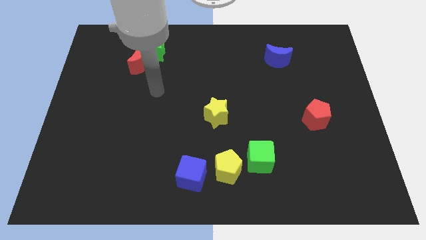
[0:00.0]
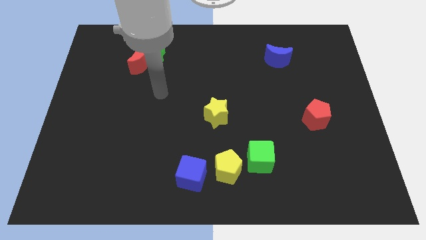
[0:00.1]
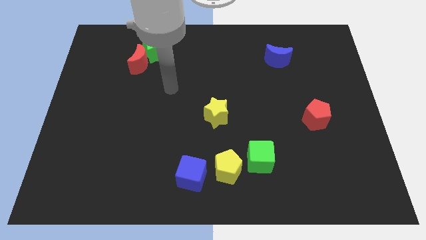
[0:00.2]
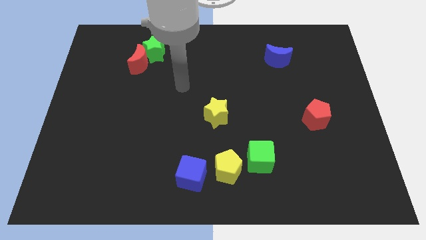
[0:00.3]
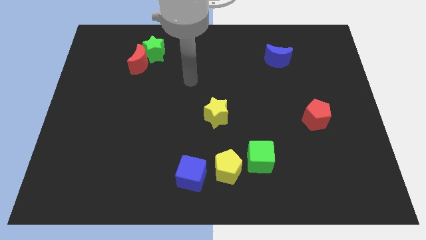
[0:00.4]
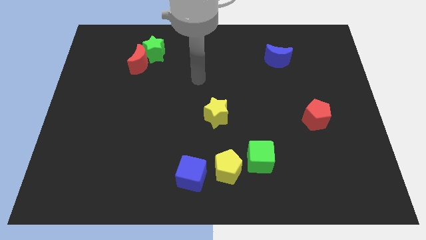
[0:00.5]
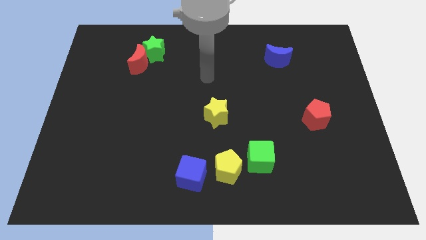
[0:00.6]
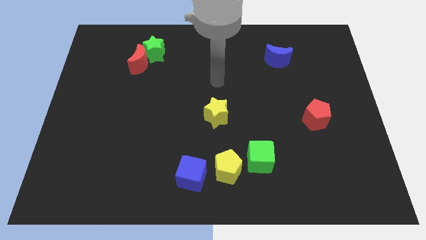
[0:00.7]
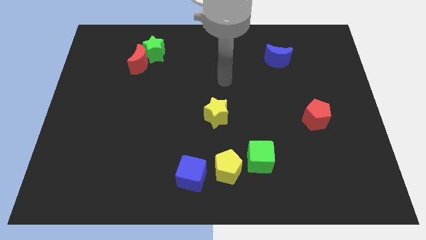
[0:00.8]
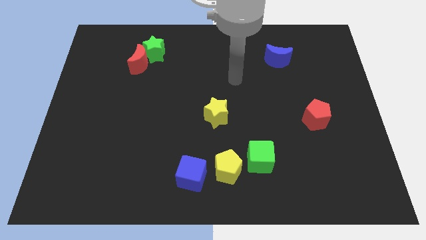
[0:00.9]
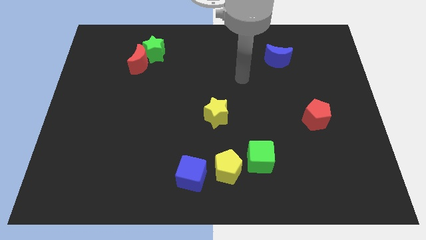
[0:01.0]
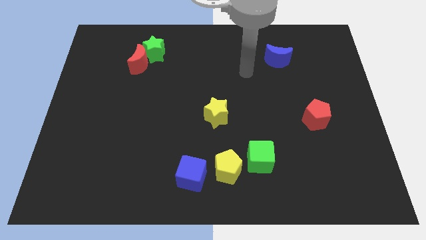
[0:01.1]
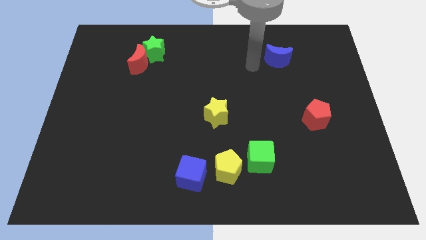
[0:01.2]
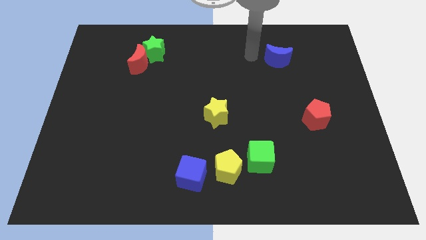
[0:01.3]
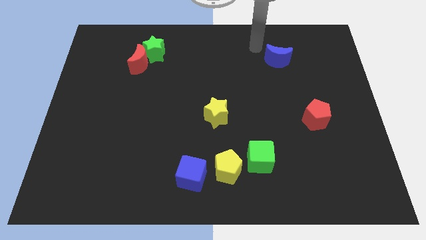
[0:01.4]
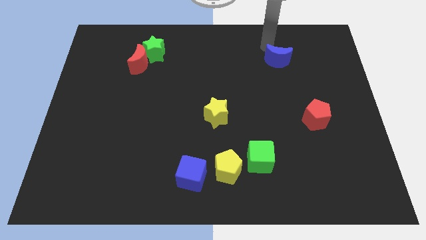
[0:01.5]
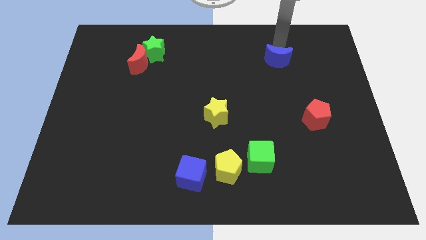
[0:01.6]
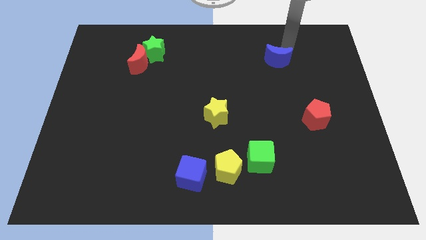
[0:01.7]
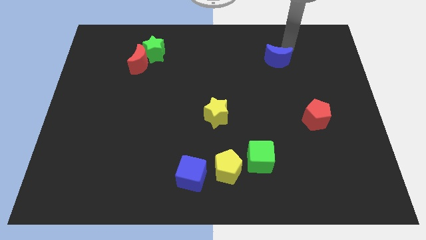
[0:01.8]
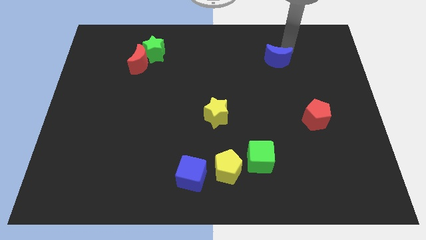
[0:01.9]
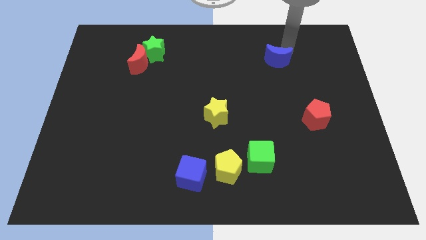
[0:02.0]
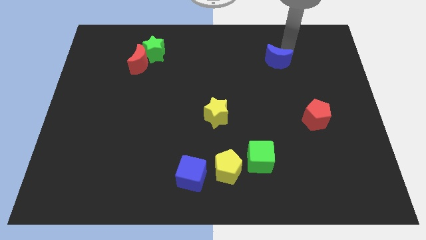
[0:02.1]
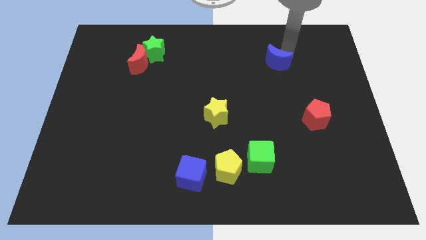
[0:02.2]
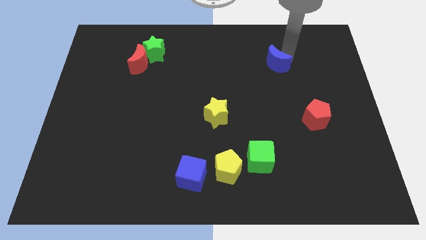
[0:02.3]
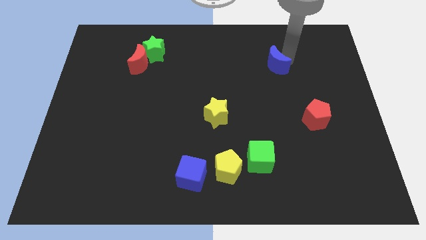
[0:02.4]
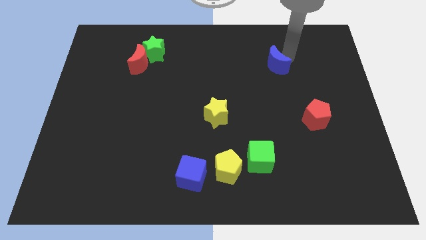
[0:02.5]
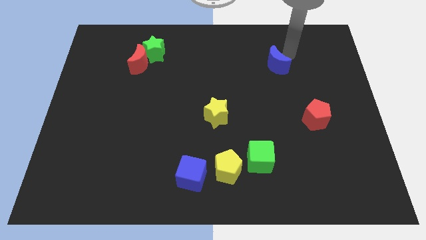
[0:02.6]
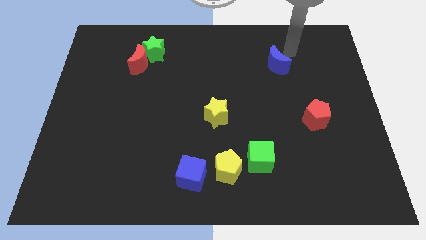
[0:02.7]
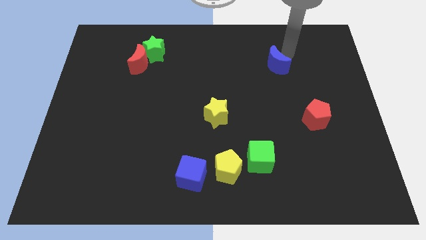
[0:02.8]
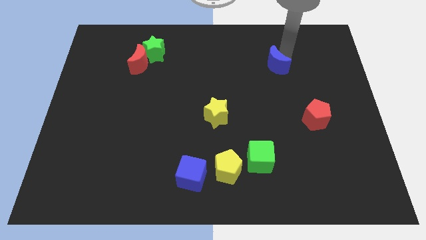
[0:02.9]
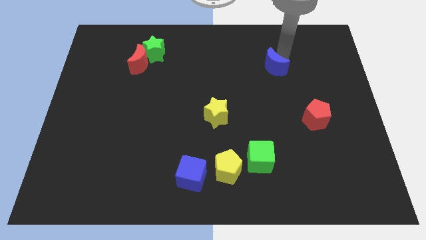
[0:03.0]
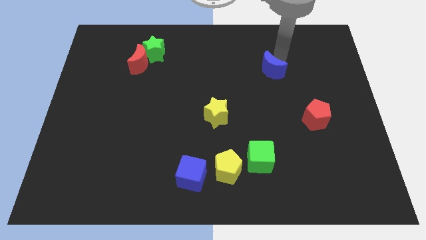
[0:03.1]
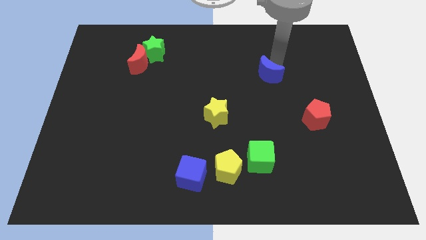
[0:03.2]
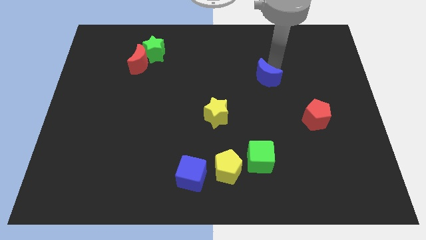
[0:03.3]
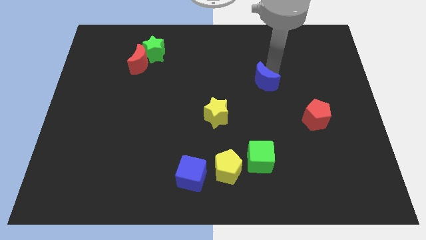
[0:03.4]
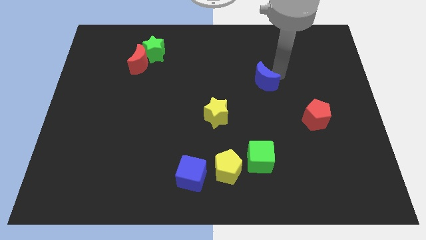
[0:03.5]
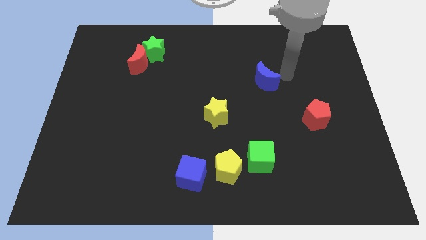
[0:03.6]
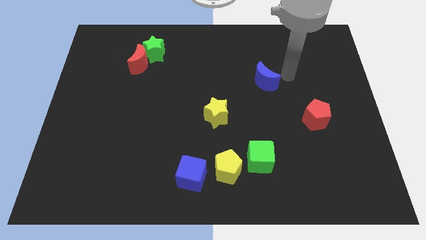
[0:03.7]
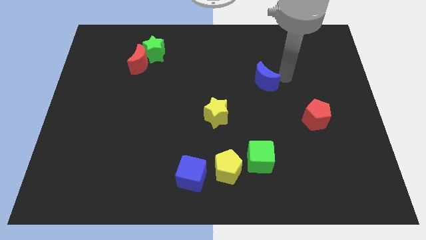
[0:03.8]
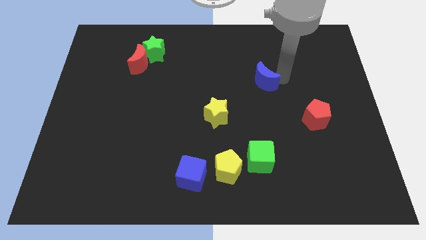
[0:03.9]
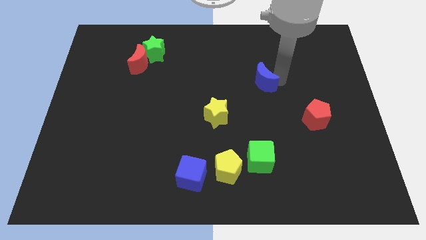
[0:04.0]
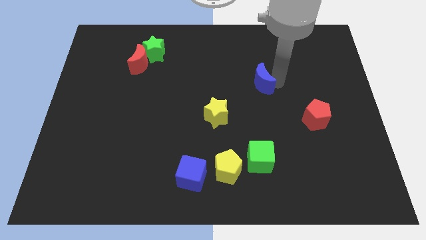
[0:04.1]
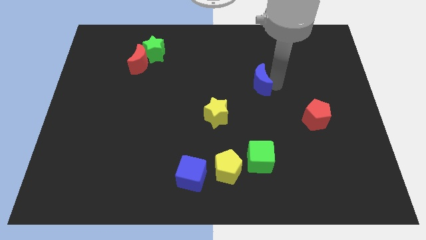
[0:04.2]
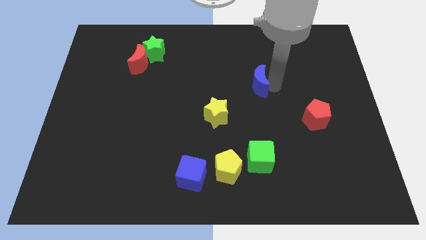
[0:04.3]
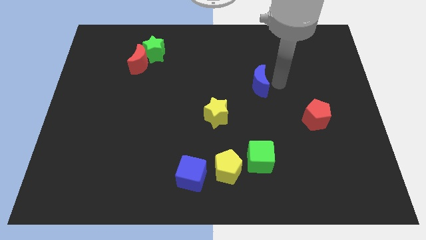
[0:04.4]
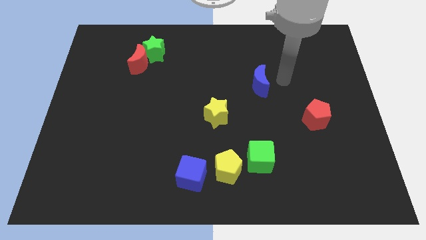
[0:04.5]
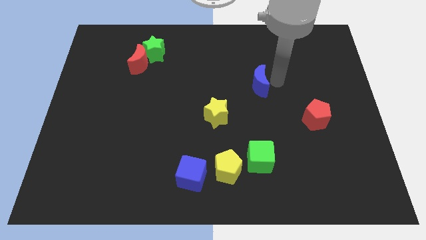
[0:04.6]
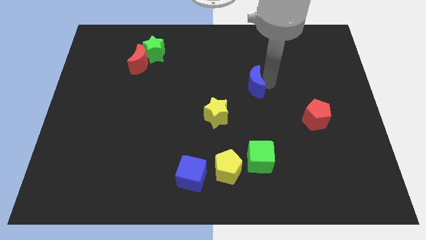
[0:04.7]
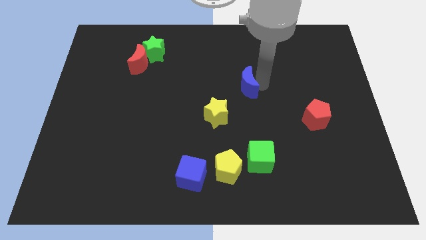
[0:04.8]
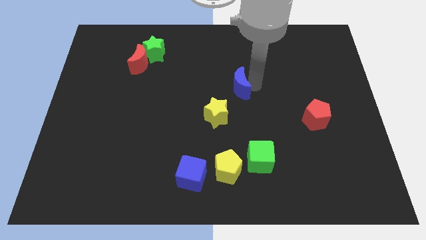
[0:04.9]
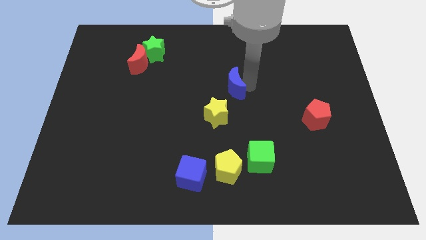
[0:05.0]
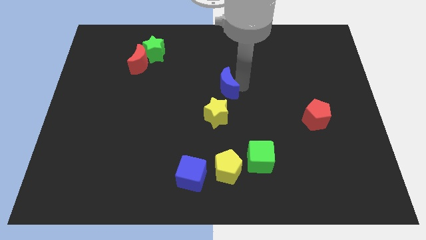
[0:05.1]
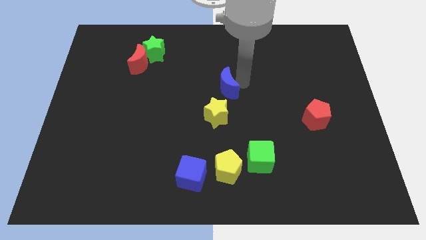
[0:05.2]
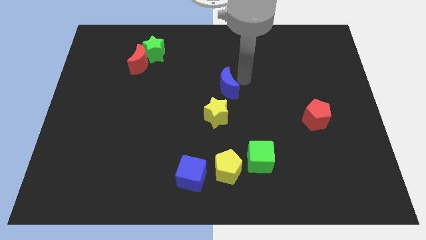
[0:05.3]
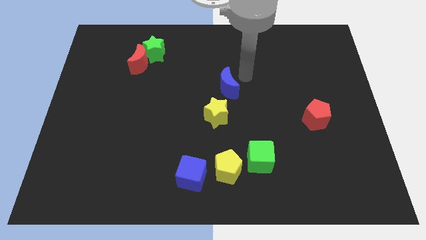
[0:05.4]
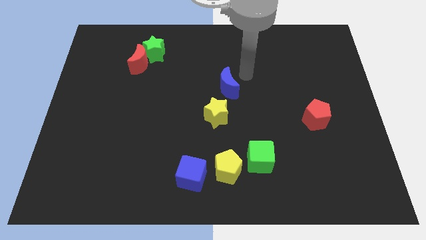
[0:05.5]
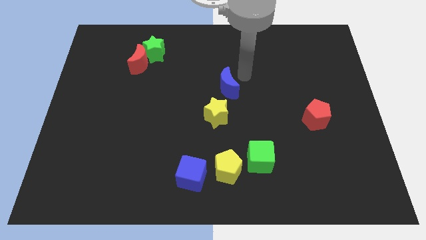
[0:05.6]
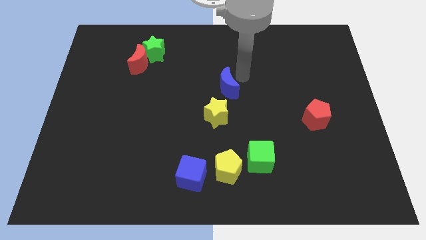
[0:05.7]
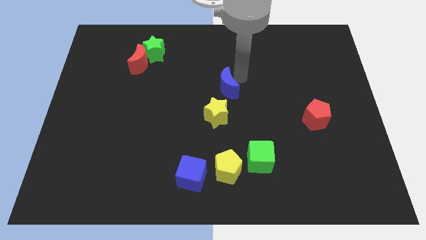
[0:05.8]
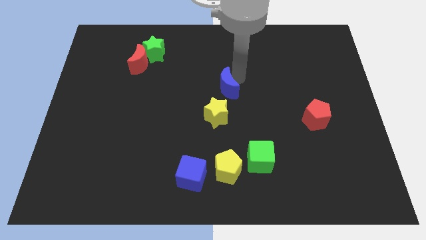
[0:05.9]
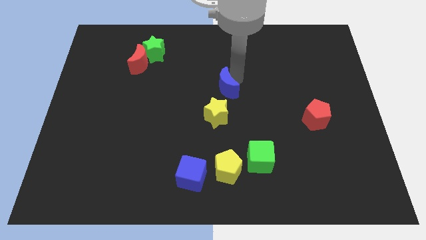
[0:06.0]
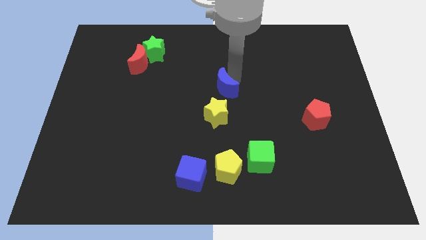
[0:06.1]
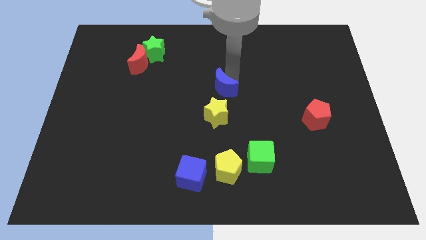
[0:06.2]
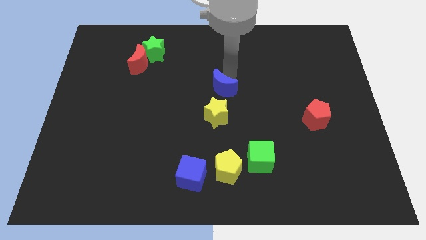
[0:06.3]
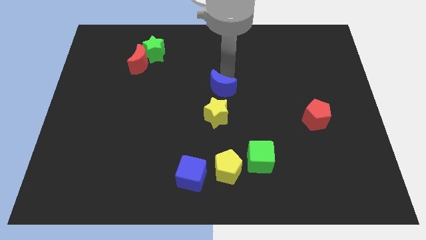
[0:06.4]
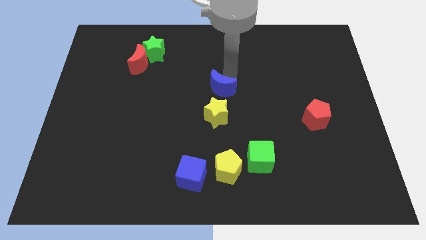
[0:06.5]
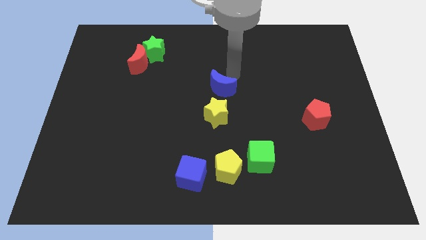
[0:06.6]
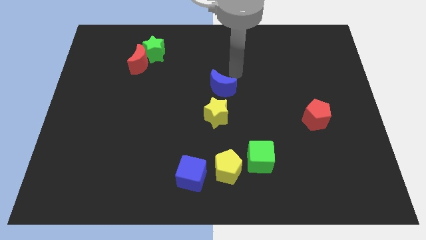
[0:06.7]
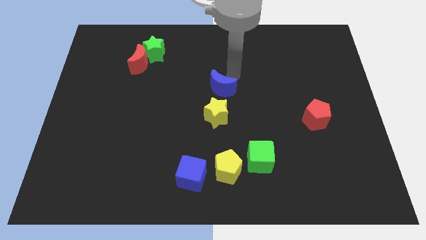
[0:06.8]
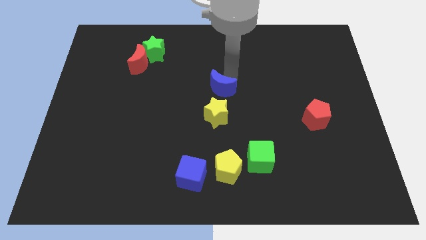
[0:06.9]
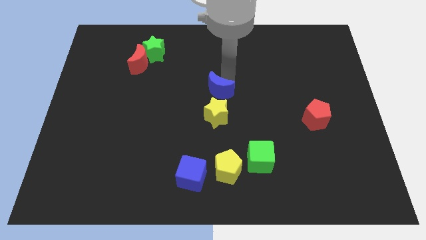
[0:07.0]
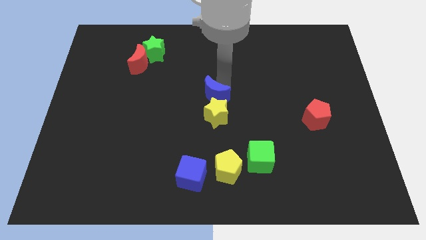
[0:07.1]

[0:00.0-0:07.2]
move the blue moon diagonally downwards and left

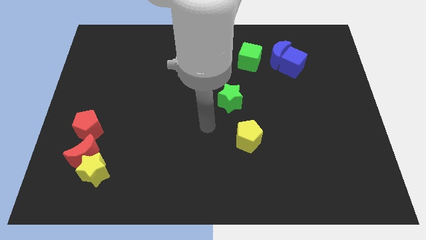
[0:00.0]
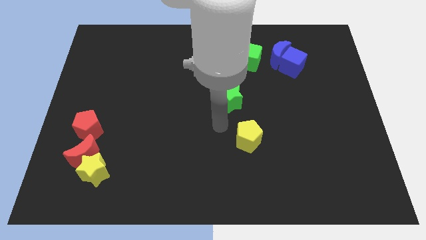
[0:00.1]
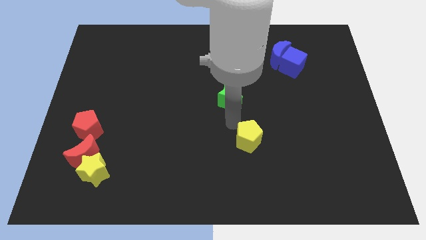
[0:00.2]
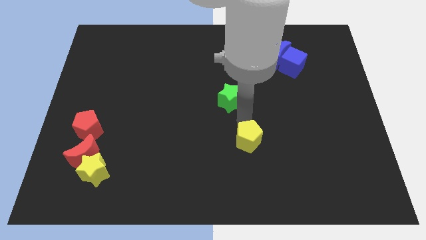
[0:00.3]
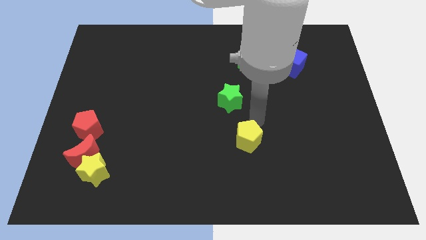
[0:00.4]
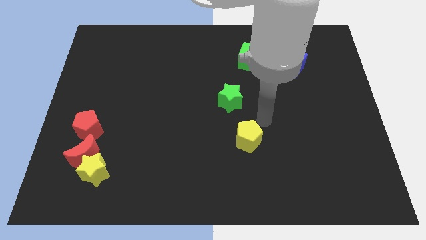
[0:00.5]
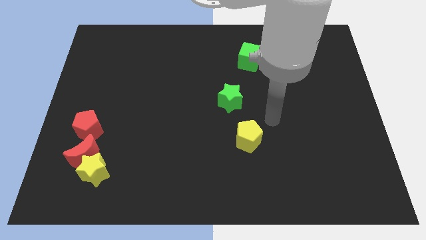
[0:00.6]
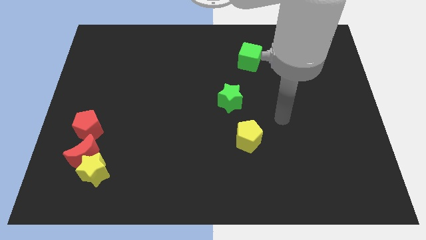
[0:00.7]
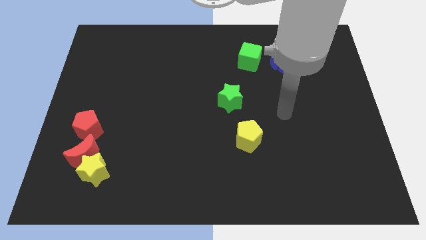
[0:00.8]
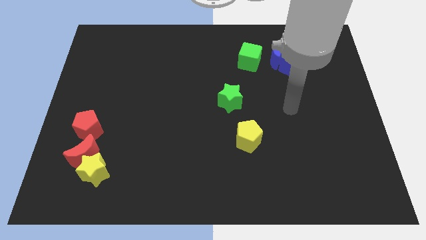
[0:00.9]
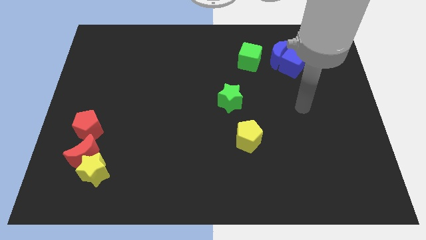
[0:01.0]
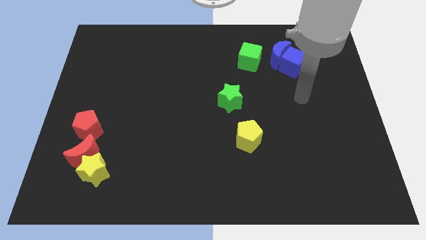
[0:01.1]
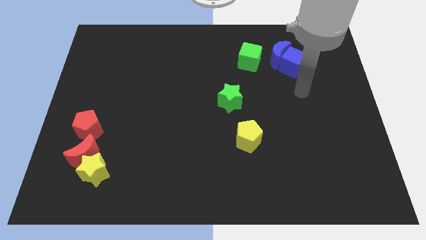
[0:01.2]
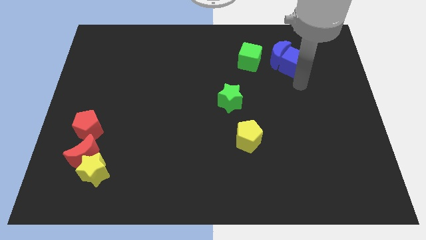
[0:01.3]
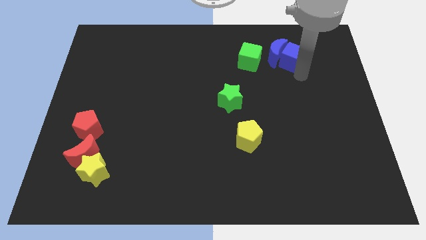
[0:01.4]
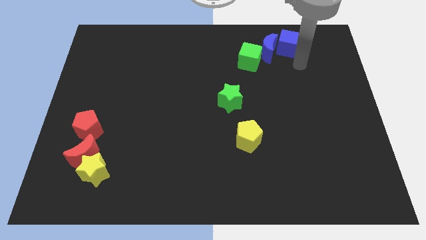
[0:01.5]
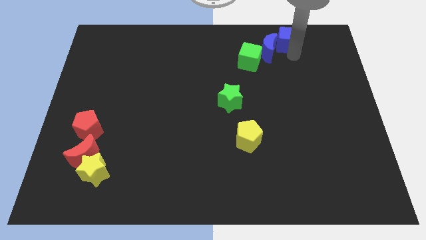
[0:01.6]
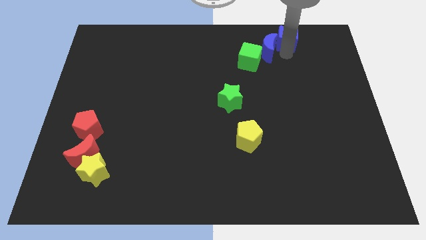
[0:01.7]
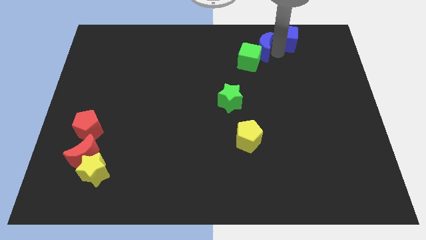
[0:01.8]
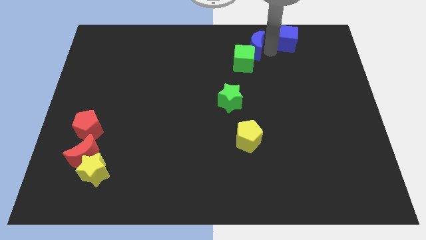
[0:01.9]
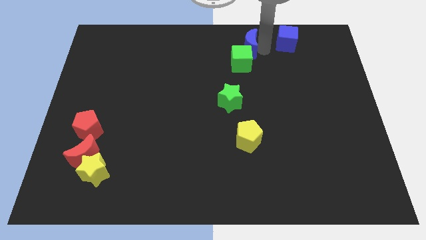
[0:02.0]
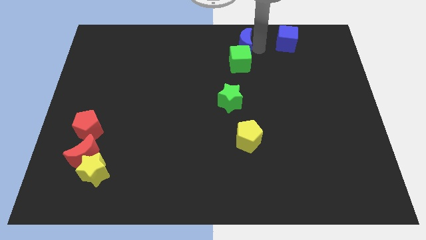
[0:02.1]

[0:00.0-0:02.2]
slightly move the blue moon to the left
